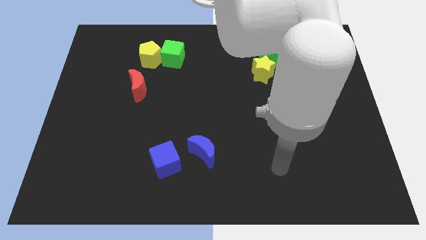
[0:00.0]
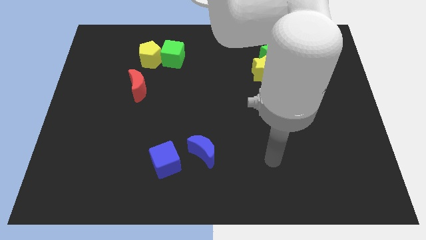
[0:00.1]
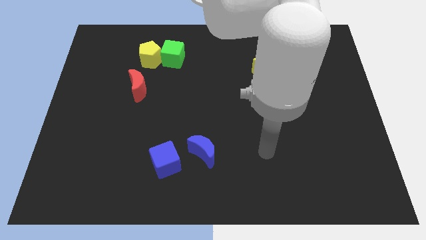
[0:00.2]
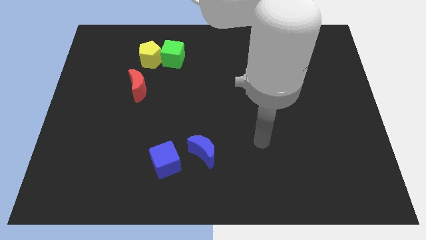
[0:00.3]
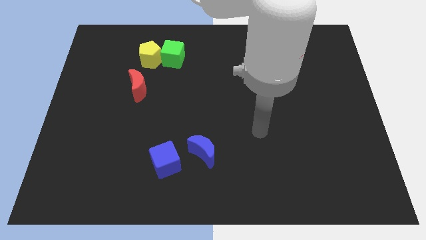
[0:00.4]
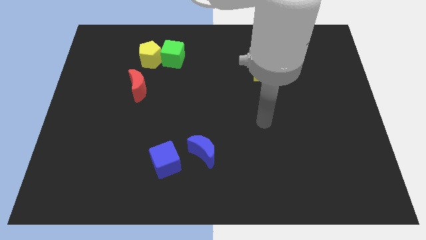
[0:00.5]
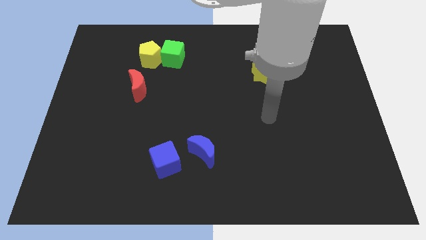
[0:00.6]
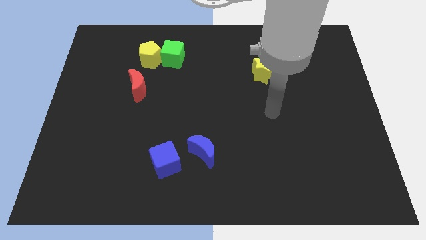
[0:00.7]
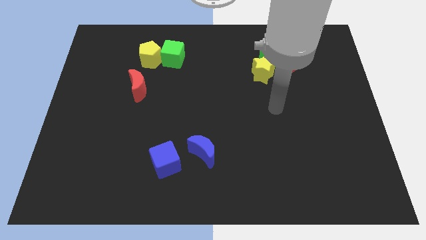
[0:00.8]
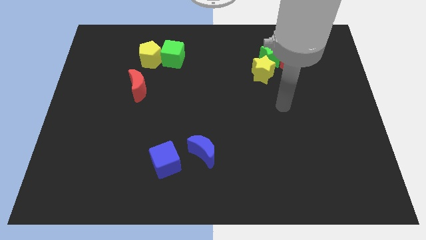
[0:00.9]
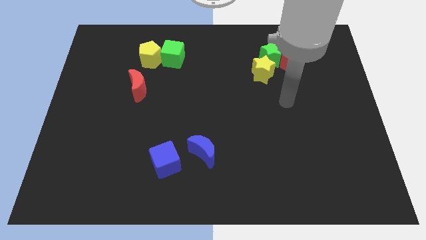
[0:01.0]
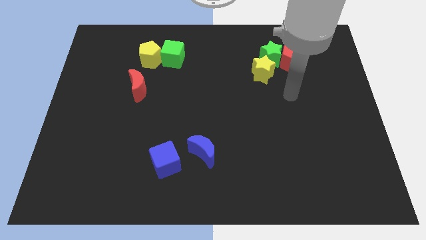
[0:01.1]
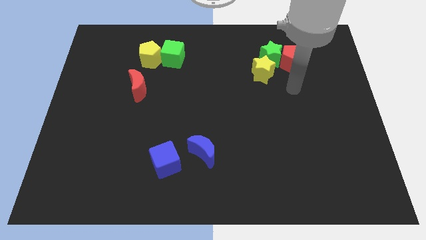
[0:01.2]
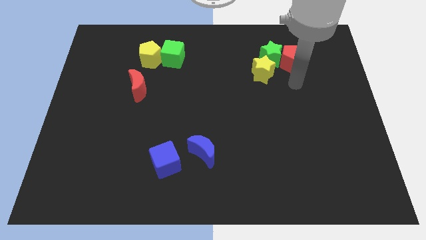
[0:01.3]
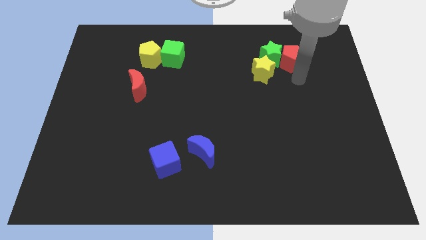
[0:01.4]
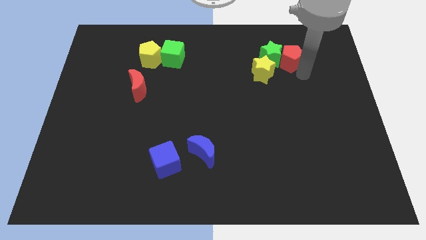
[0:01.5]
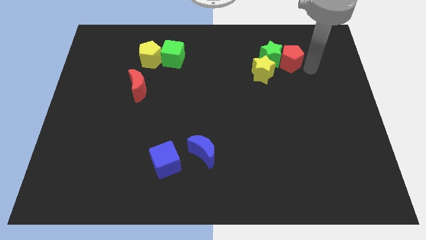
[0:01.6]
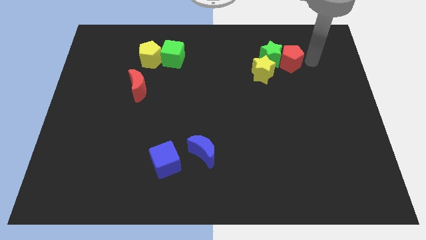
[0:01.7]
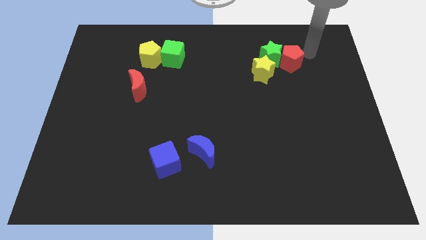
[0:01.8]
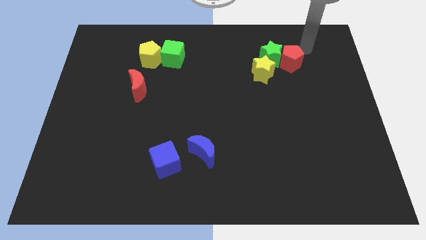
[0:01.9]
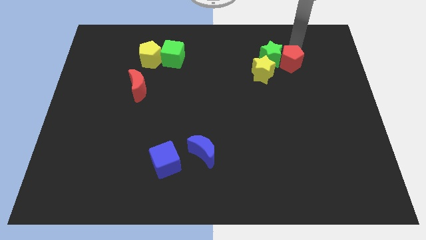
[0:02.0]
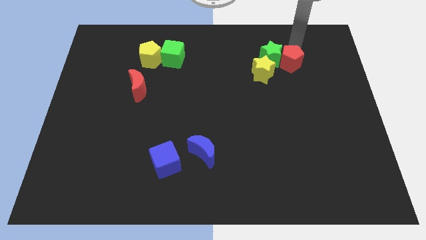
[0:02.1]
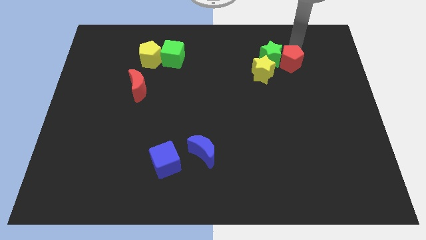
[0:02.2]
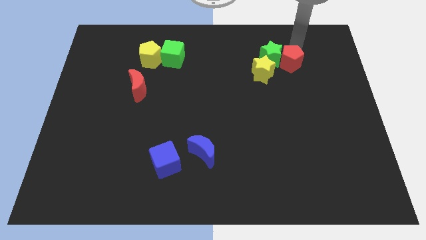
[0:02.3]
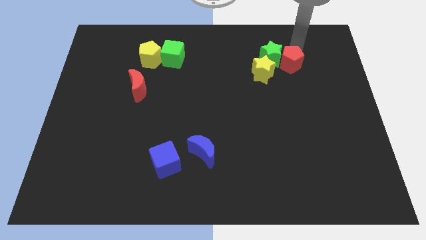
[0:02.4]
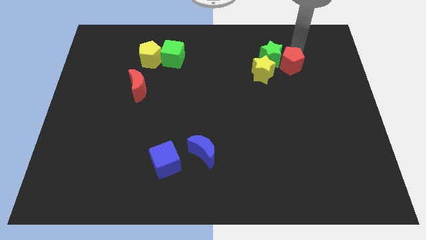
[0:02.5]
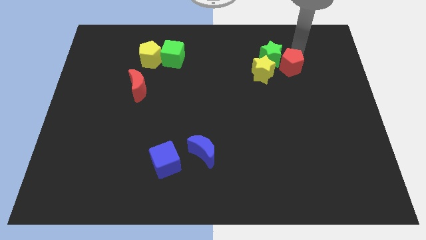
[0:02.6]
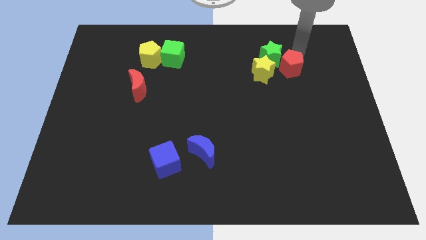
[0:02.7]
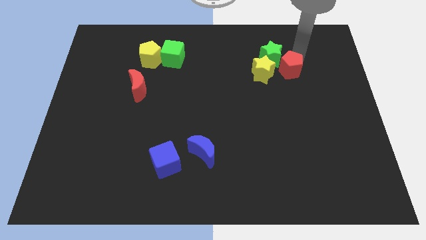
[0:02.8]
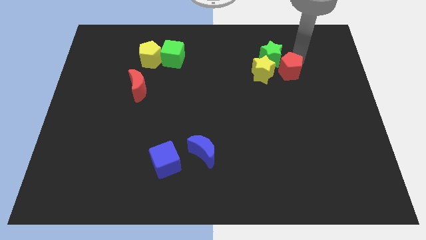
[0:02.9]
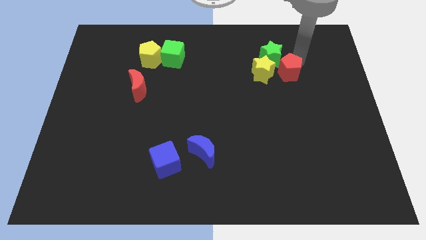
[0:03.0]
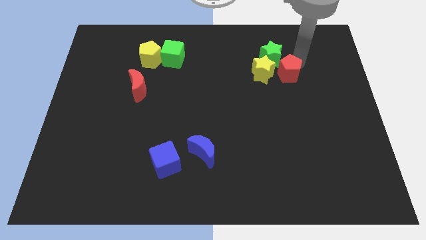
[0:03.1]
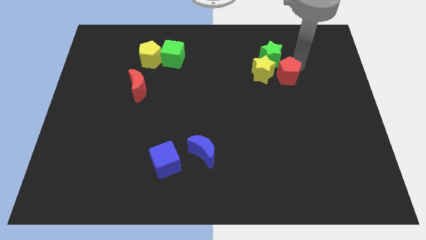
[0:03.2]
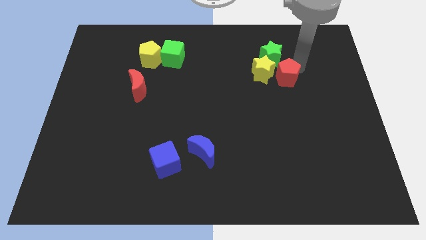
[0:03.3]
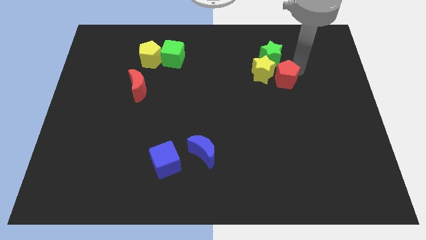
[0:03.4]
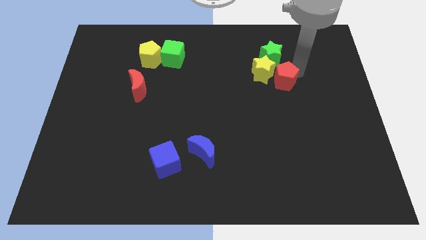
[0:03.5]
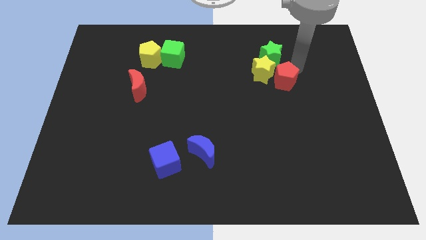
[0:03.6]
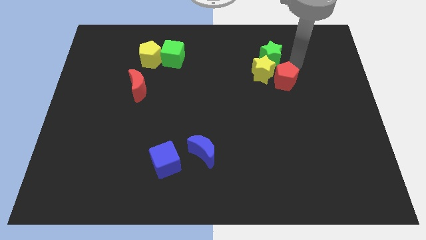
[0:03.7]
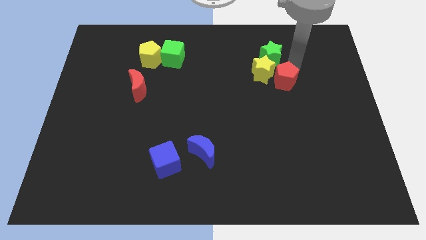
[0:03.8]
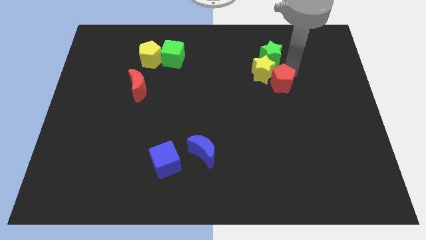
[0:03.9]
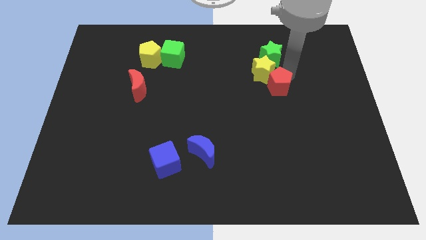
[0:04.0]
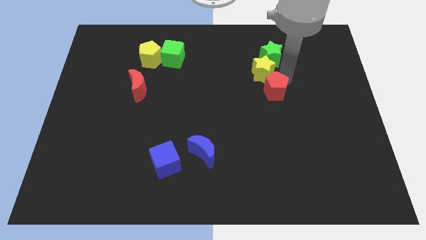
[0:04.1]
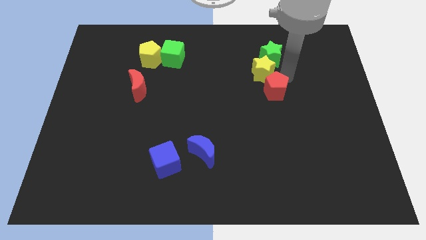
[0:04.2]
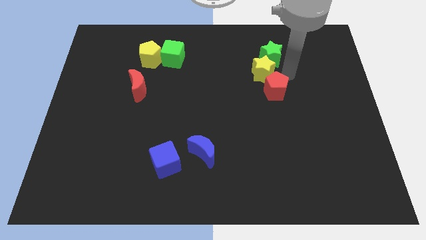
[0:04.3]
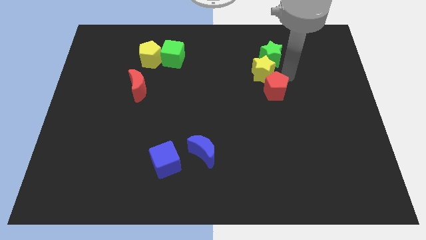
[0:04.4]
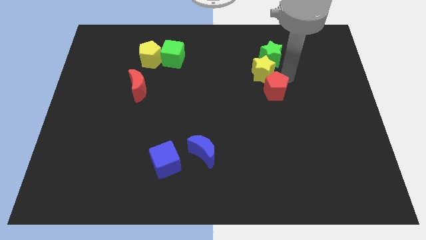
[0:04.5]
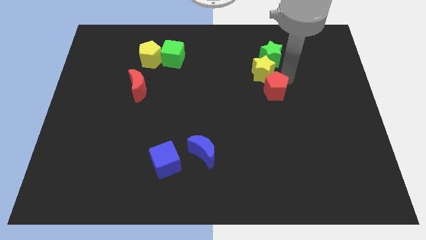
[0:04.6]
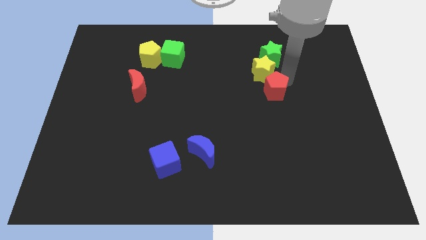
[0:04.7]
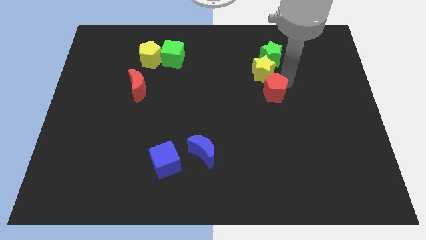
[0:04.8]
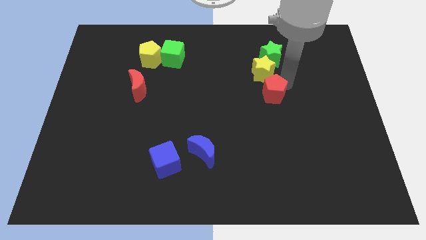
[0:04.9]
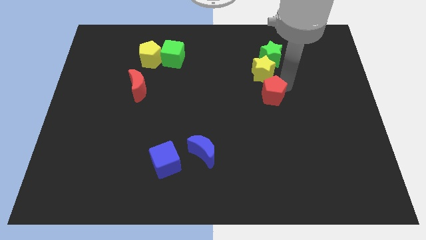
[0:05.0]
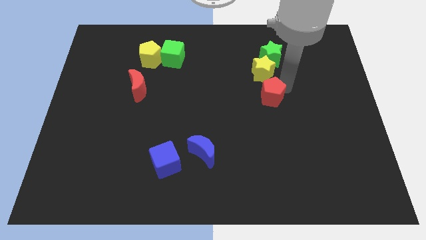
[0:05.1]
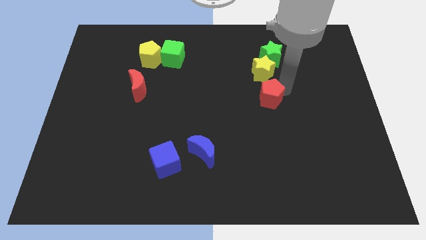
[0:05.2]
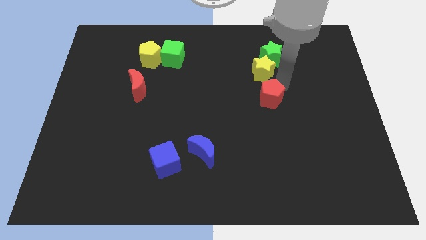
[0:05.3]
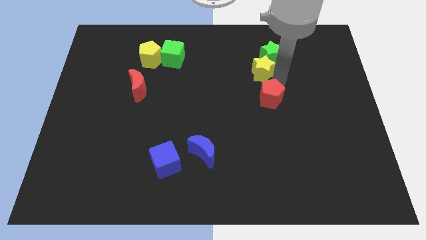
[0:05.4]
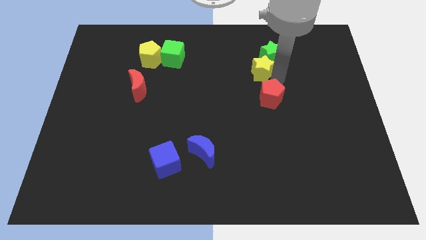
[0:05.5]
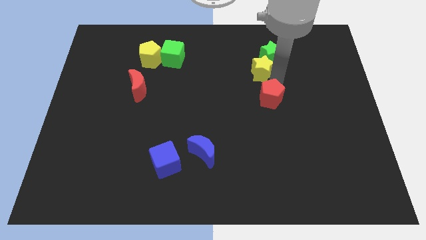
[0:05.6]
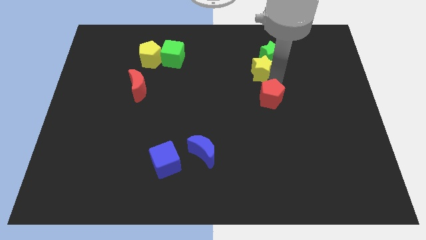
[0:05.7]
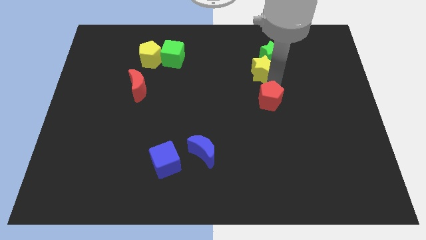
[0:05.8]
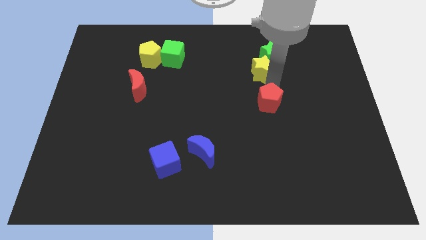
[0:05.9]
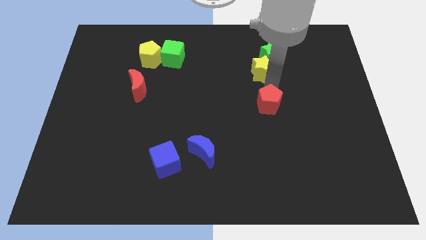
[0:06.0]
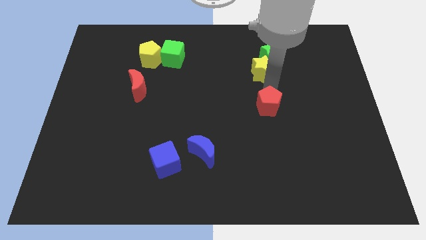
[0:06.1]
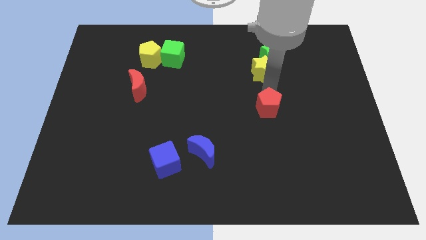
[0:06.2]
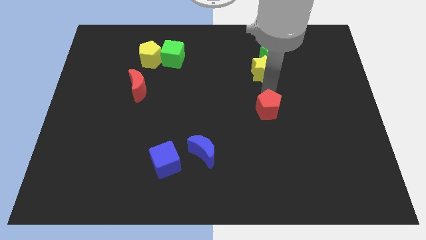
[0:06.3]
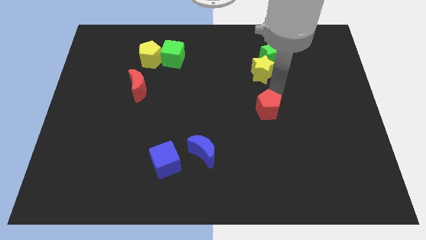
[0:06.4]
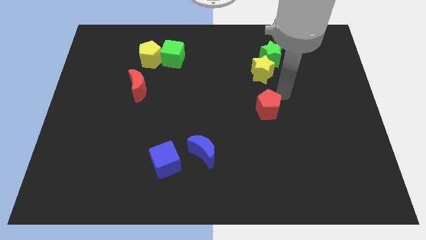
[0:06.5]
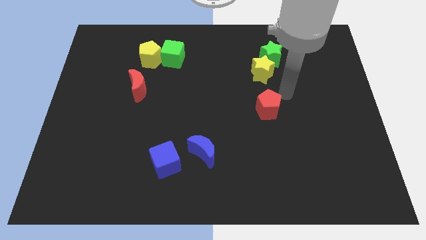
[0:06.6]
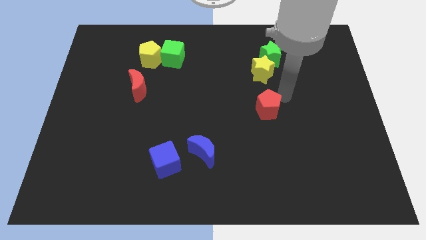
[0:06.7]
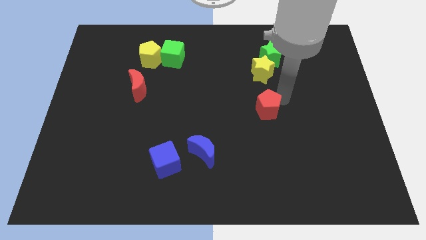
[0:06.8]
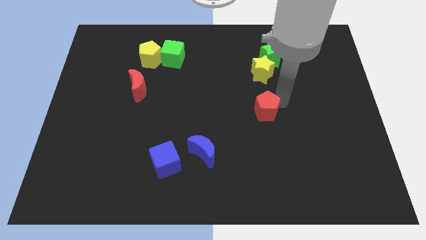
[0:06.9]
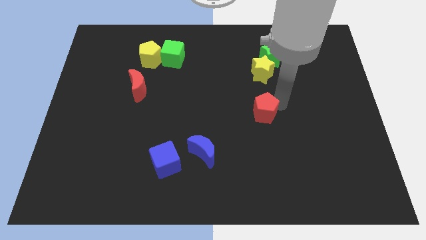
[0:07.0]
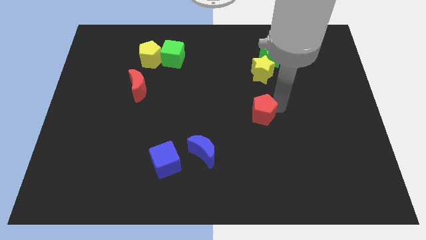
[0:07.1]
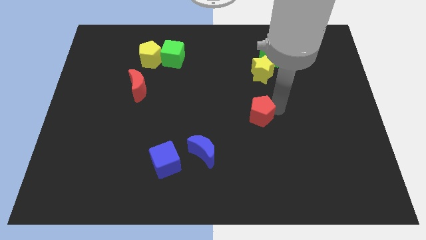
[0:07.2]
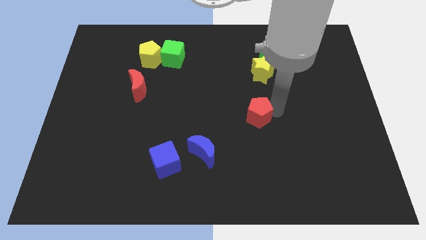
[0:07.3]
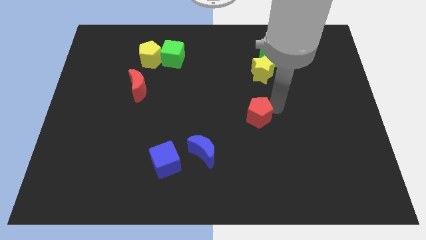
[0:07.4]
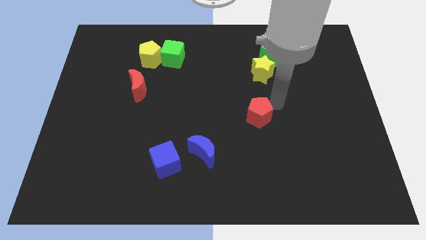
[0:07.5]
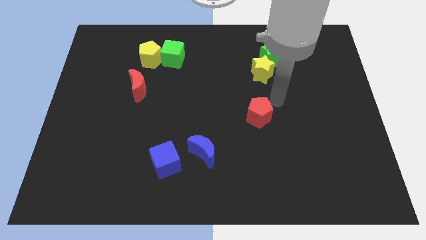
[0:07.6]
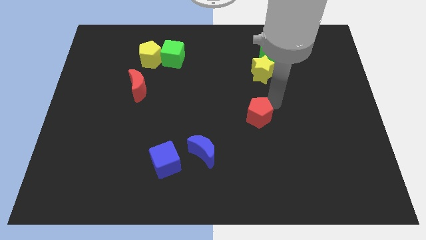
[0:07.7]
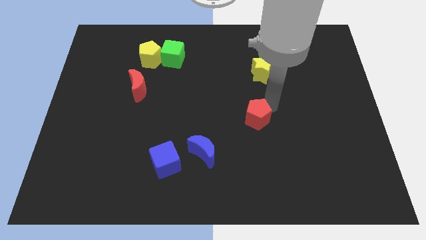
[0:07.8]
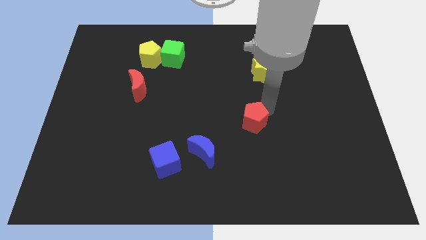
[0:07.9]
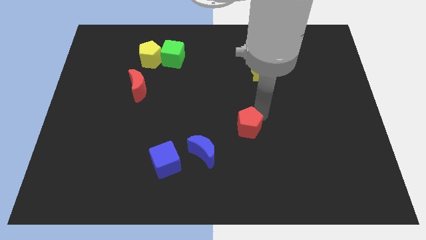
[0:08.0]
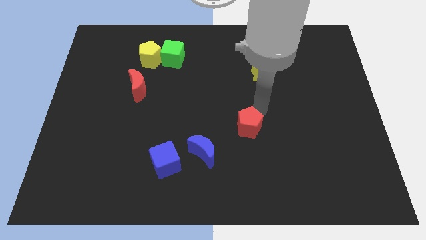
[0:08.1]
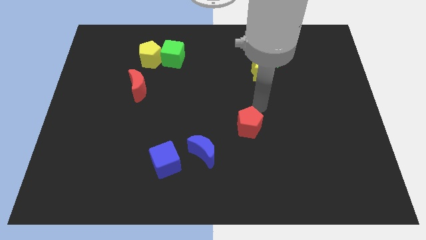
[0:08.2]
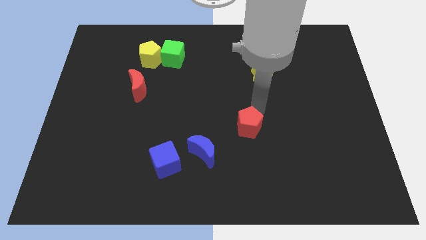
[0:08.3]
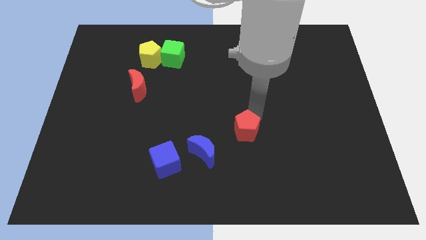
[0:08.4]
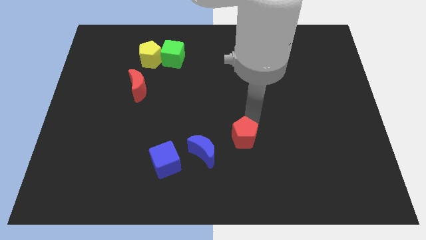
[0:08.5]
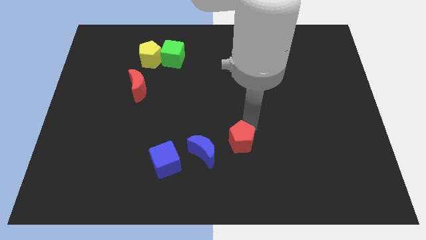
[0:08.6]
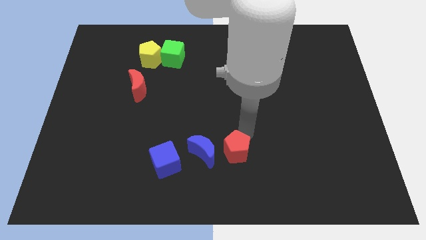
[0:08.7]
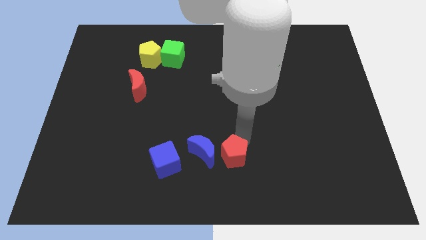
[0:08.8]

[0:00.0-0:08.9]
put the red pentagon to the bottom right of the blue moon
